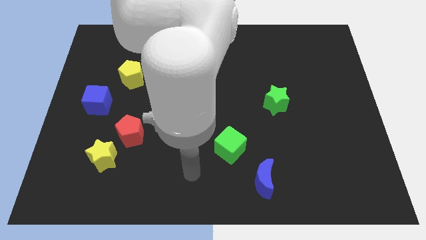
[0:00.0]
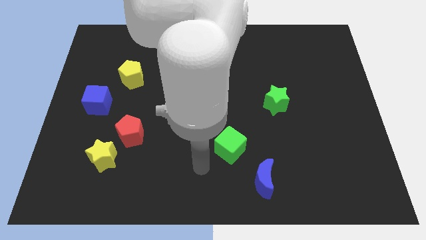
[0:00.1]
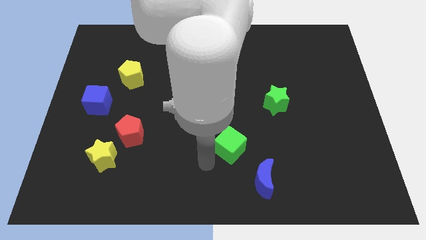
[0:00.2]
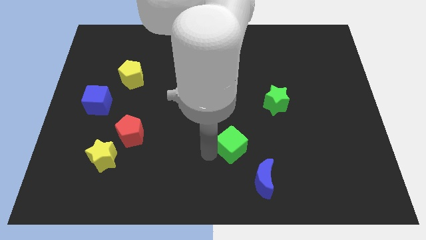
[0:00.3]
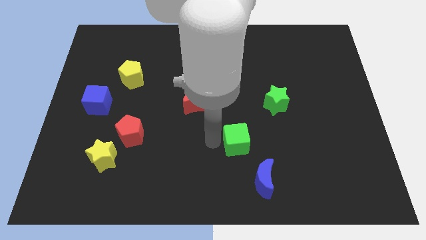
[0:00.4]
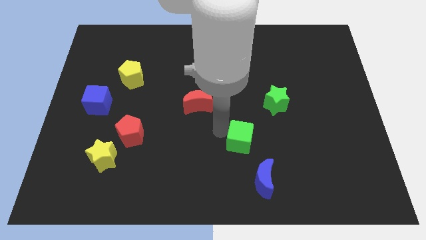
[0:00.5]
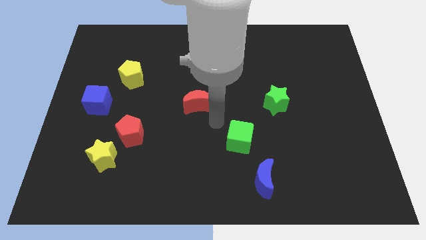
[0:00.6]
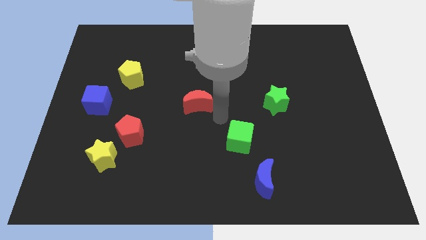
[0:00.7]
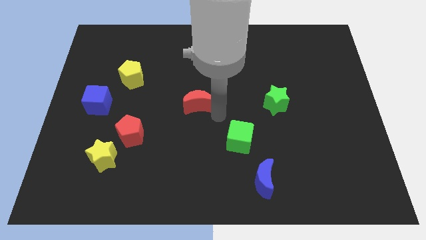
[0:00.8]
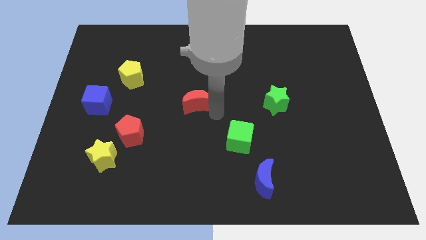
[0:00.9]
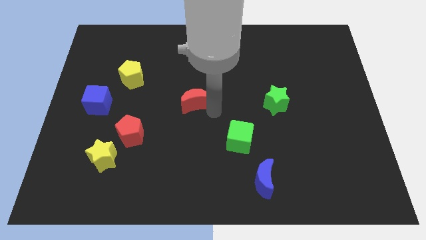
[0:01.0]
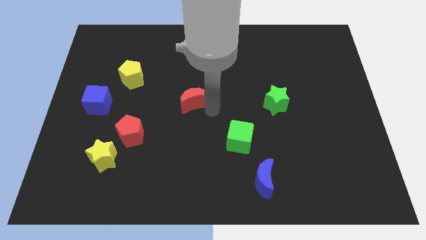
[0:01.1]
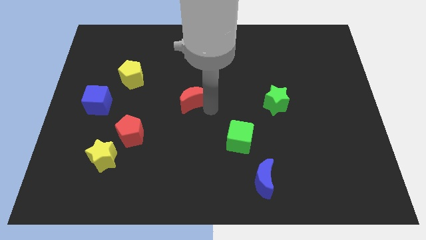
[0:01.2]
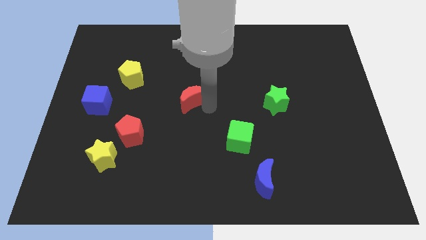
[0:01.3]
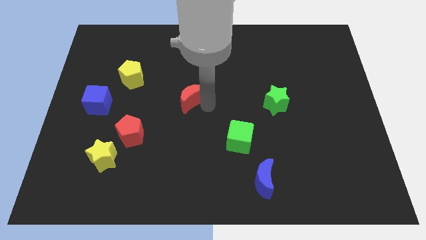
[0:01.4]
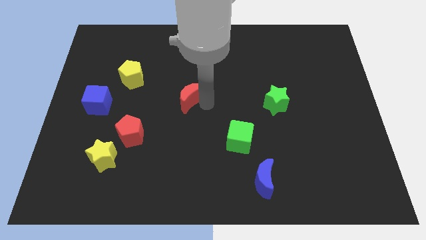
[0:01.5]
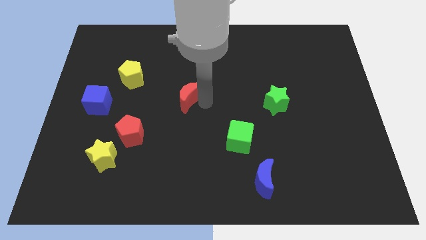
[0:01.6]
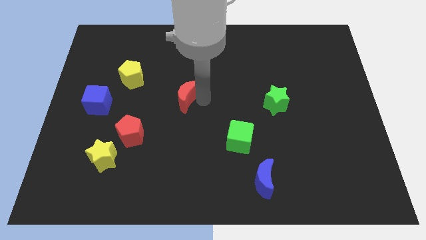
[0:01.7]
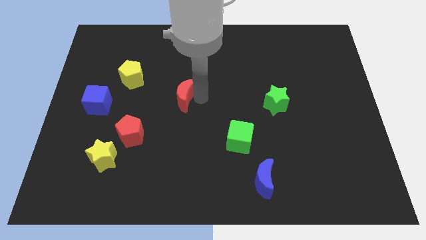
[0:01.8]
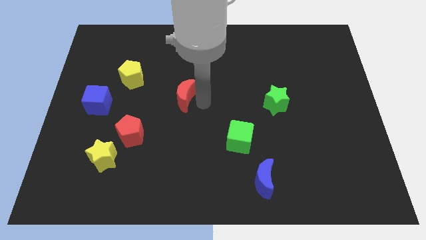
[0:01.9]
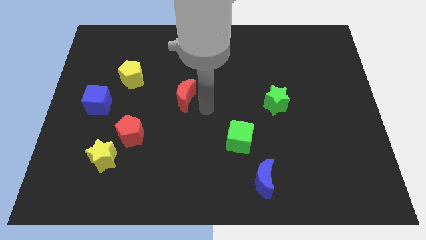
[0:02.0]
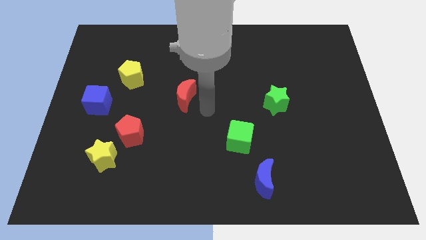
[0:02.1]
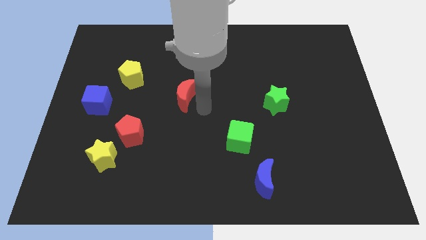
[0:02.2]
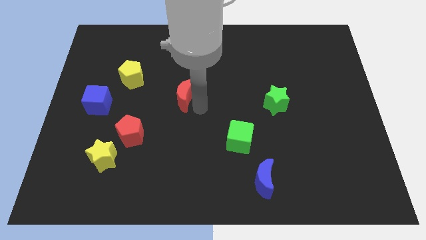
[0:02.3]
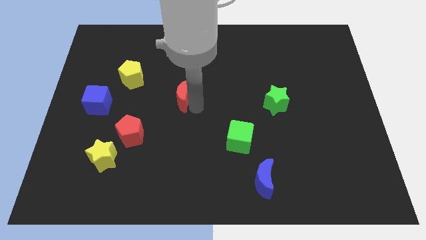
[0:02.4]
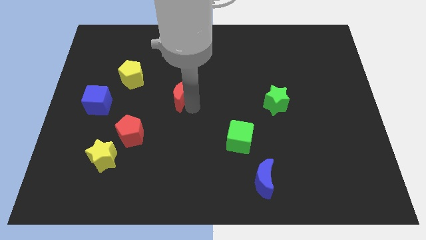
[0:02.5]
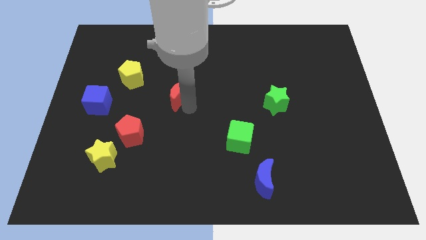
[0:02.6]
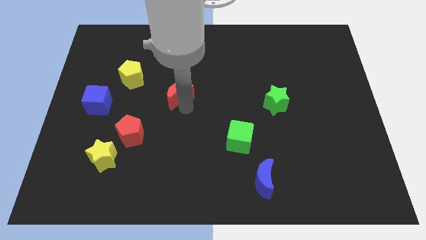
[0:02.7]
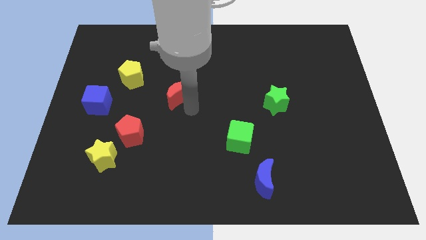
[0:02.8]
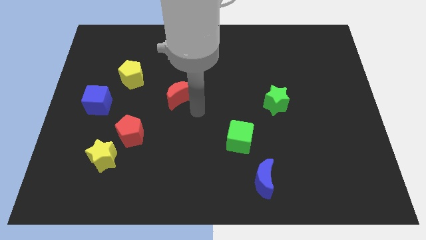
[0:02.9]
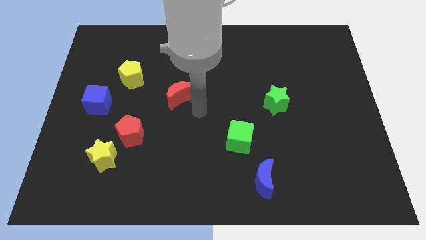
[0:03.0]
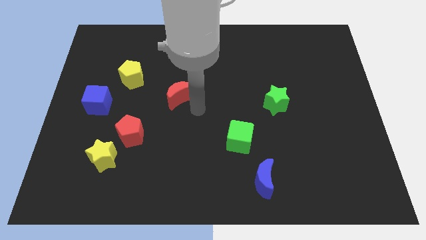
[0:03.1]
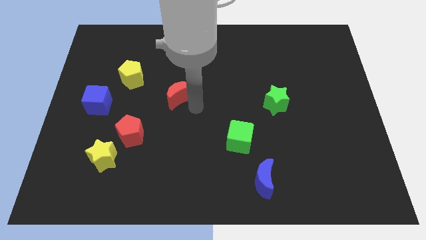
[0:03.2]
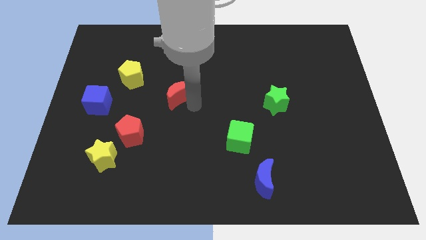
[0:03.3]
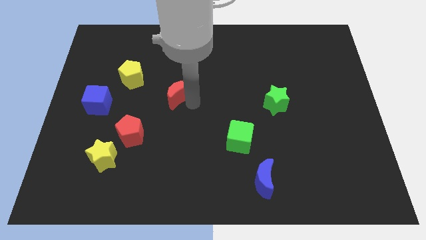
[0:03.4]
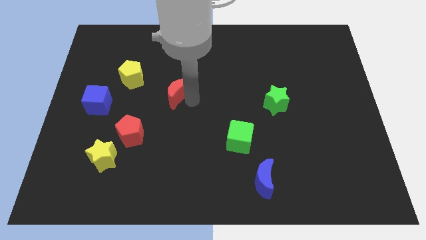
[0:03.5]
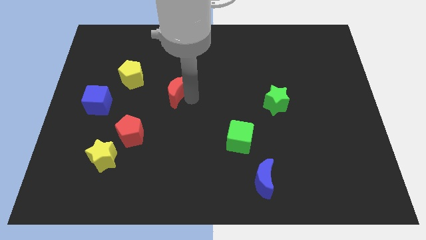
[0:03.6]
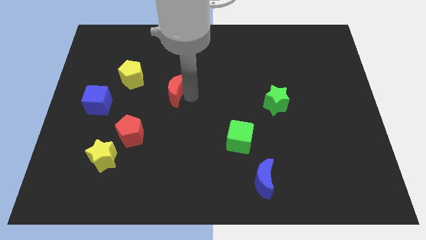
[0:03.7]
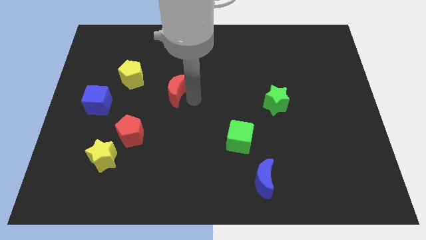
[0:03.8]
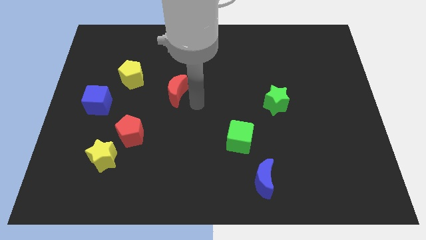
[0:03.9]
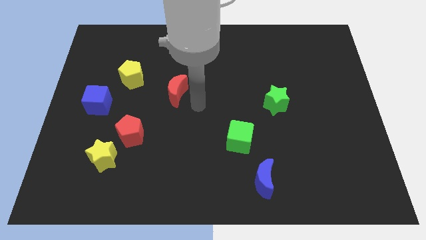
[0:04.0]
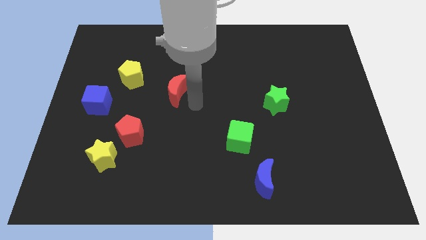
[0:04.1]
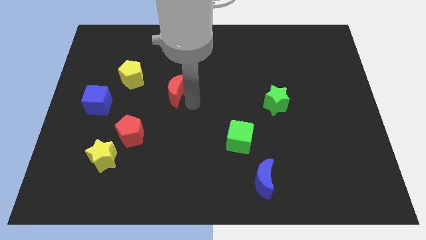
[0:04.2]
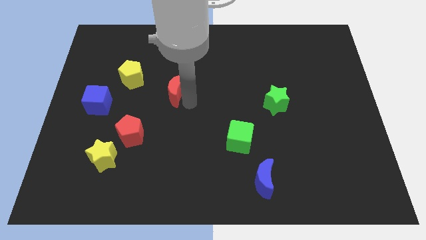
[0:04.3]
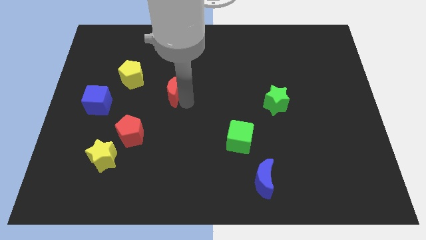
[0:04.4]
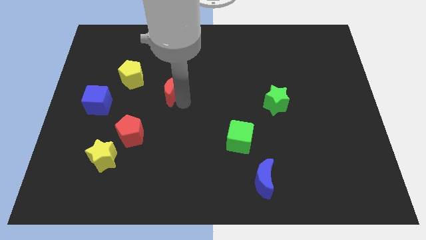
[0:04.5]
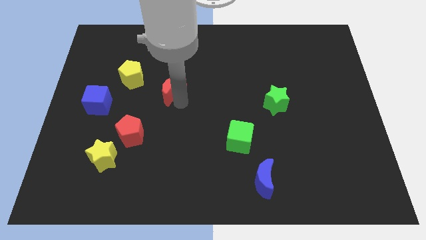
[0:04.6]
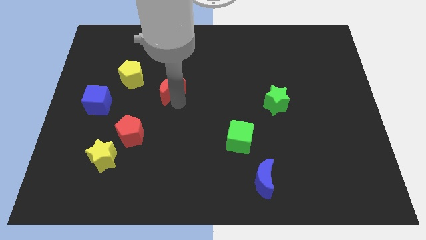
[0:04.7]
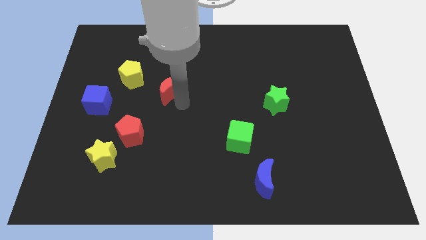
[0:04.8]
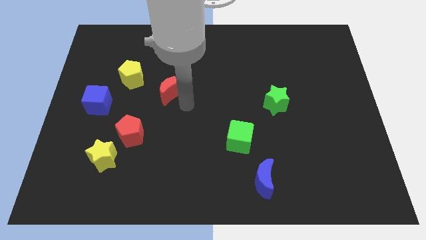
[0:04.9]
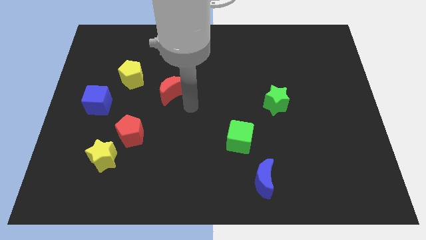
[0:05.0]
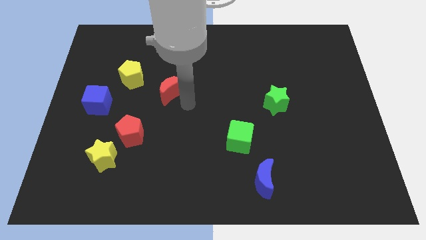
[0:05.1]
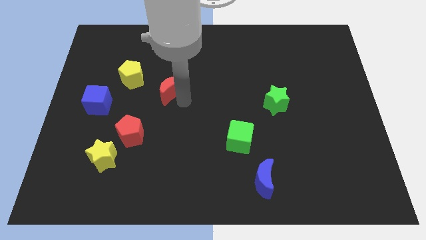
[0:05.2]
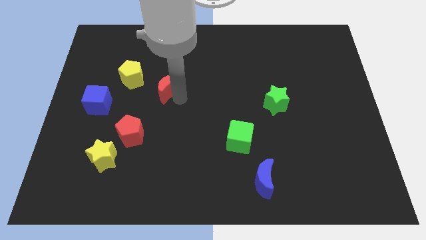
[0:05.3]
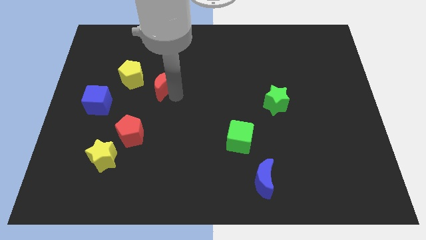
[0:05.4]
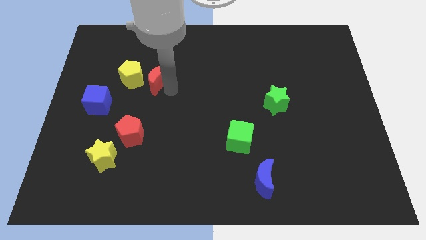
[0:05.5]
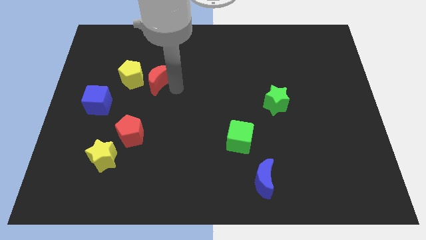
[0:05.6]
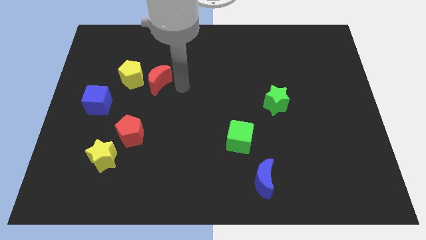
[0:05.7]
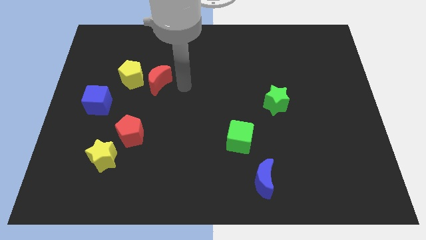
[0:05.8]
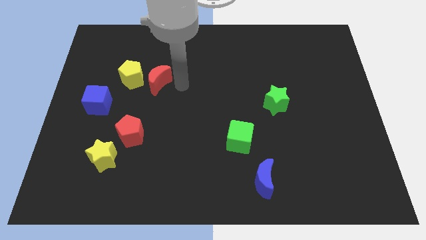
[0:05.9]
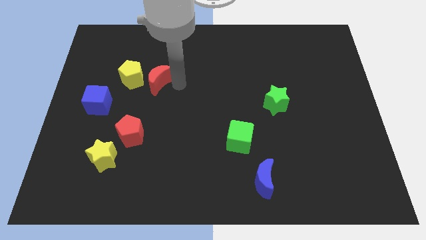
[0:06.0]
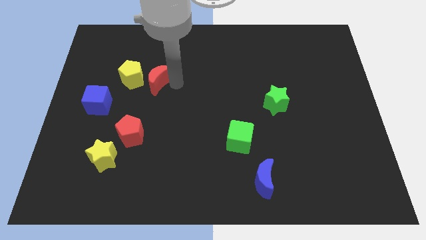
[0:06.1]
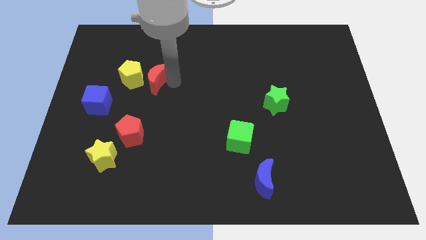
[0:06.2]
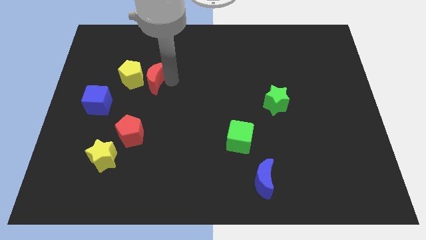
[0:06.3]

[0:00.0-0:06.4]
move the red moon close to the yellow pentagon

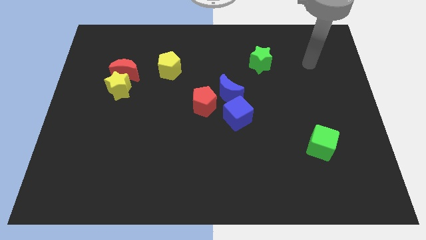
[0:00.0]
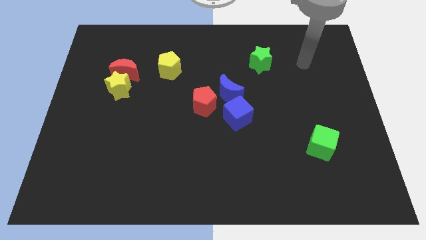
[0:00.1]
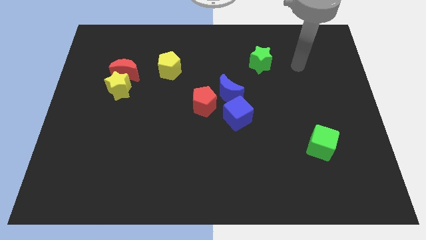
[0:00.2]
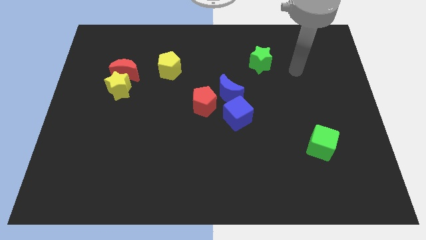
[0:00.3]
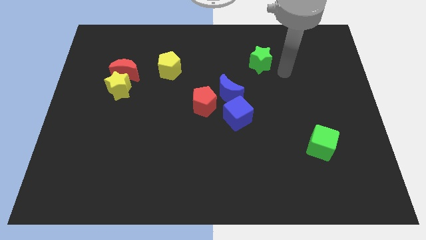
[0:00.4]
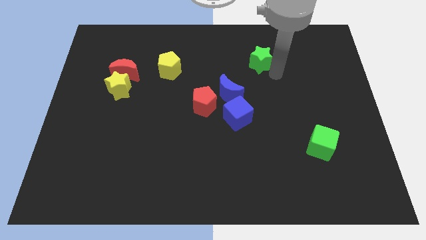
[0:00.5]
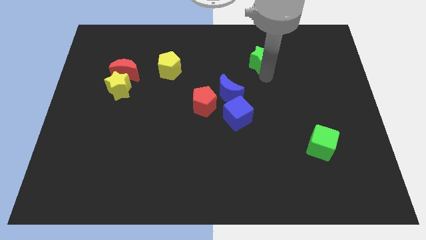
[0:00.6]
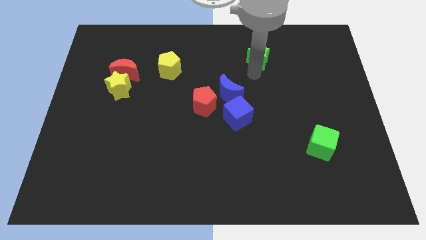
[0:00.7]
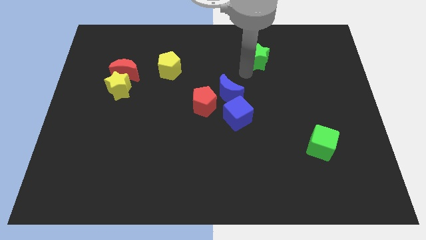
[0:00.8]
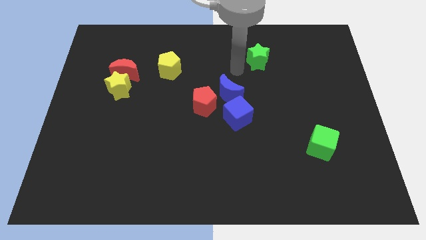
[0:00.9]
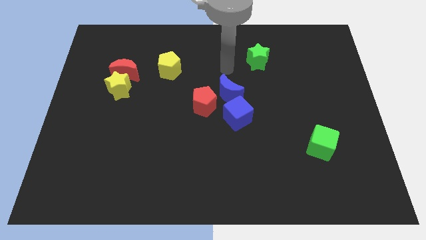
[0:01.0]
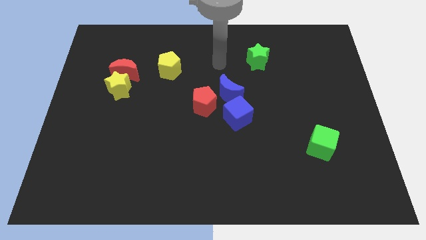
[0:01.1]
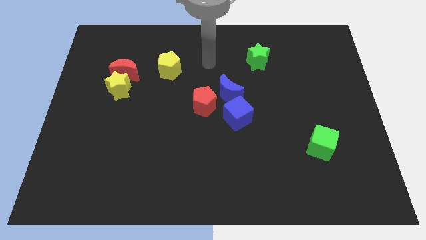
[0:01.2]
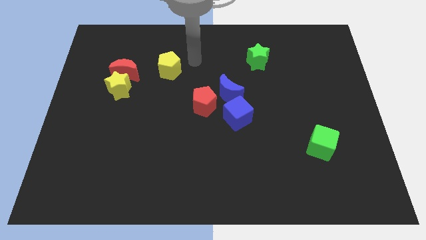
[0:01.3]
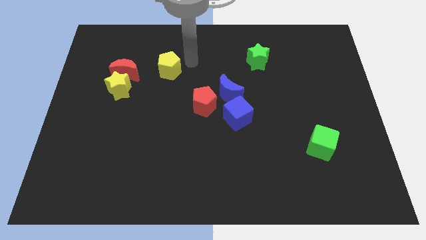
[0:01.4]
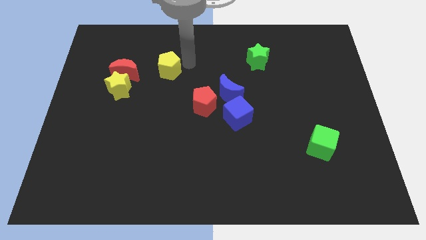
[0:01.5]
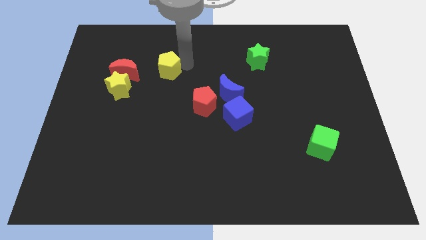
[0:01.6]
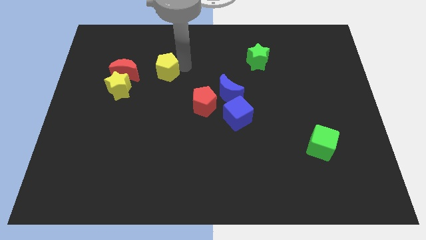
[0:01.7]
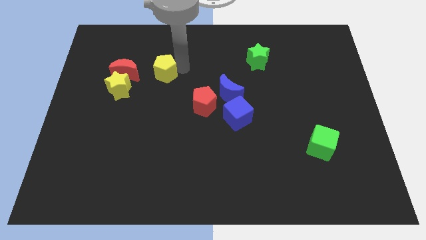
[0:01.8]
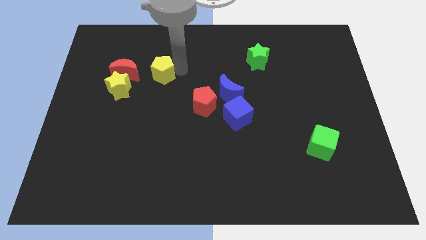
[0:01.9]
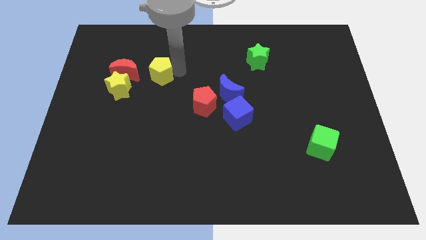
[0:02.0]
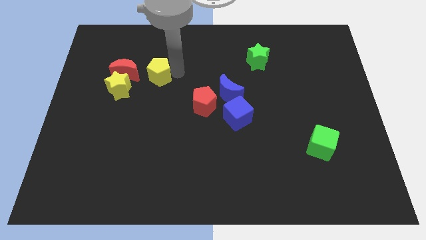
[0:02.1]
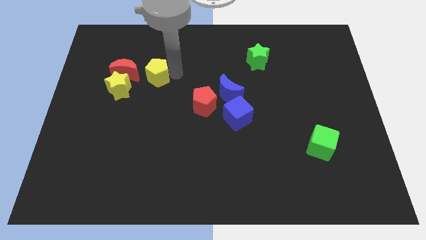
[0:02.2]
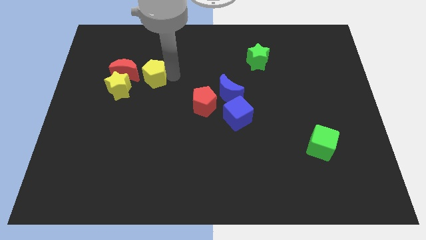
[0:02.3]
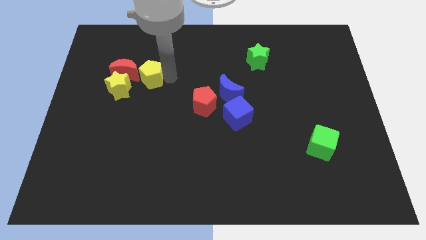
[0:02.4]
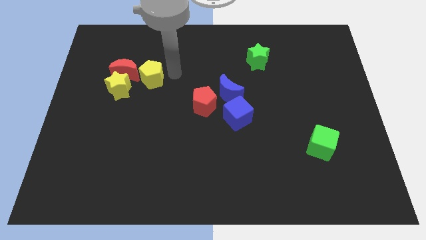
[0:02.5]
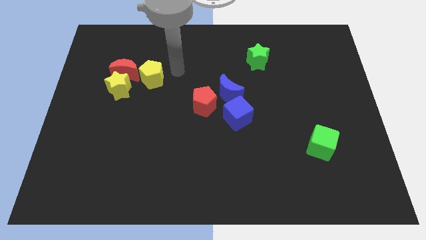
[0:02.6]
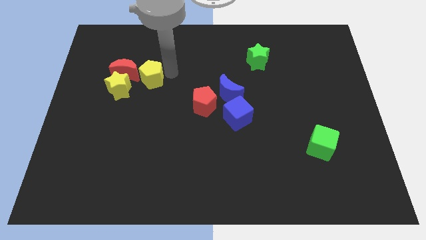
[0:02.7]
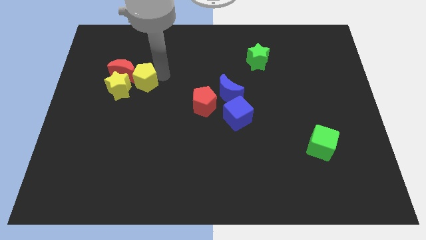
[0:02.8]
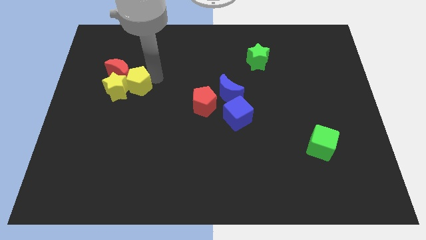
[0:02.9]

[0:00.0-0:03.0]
slide the yellow pentagon towards the yellow star
